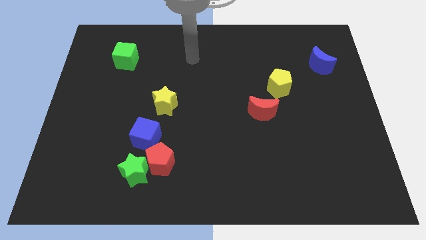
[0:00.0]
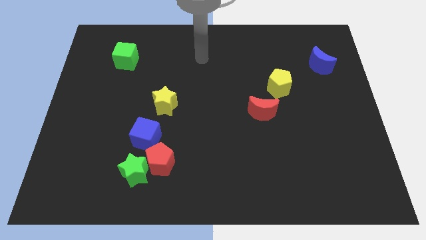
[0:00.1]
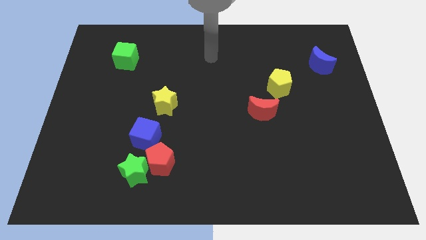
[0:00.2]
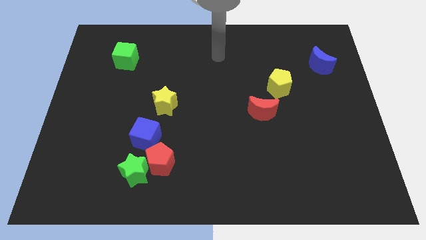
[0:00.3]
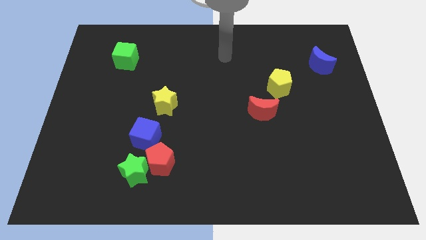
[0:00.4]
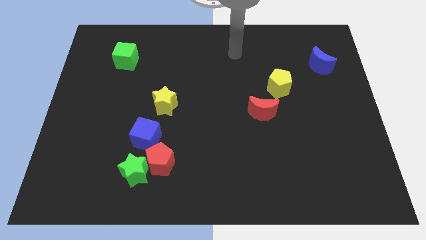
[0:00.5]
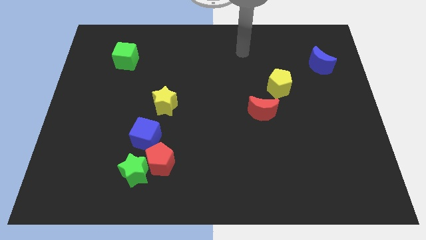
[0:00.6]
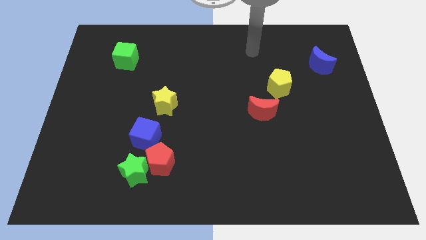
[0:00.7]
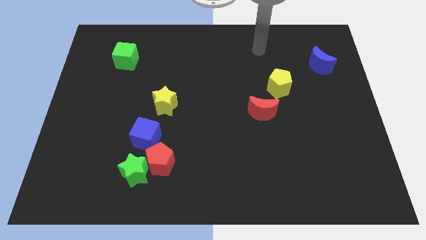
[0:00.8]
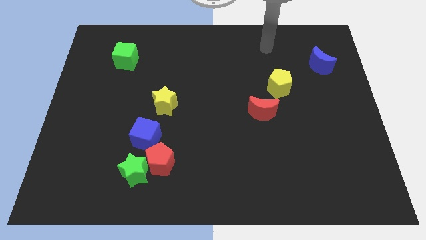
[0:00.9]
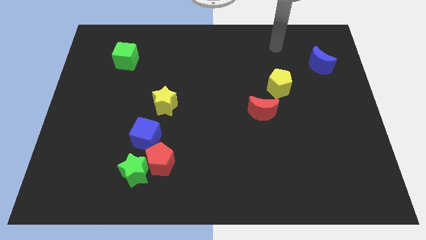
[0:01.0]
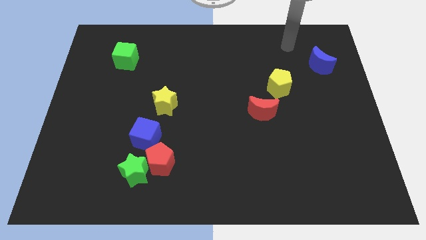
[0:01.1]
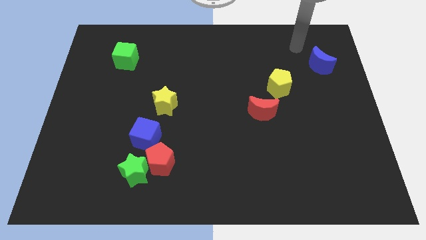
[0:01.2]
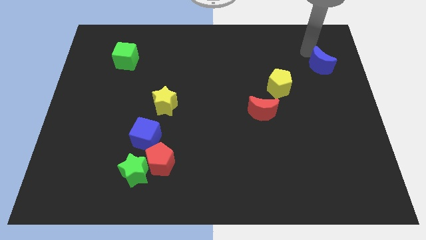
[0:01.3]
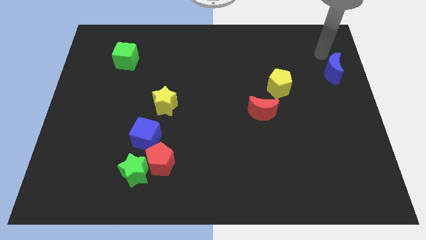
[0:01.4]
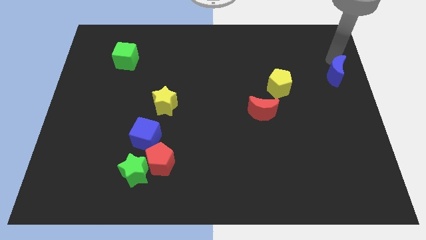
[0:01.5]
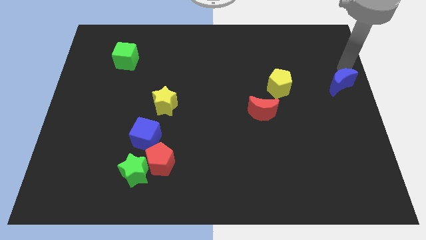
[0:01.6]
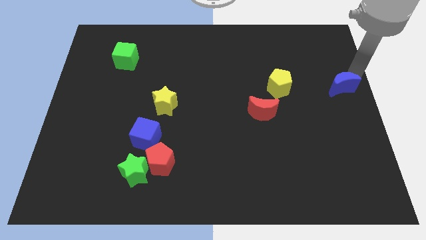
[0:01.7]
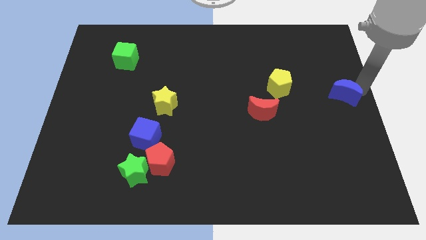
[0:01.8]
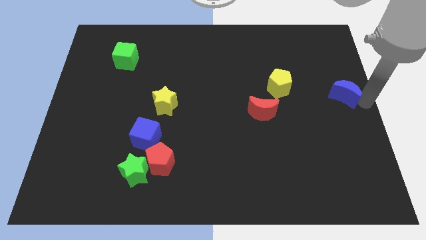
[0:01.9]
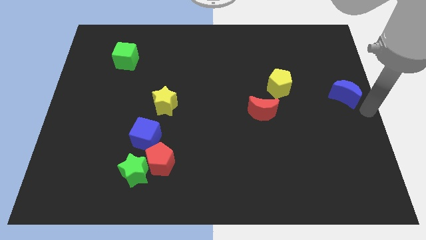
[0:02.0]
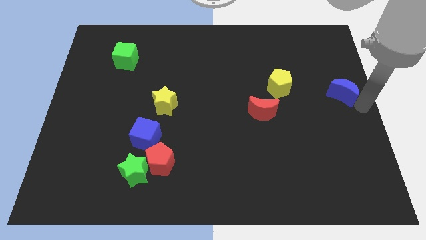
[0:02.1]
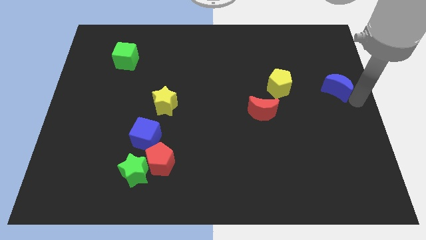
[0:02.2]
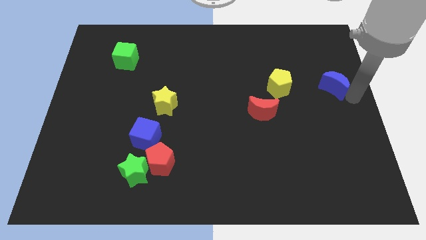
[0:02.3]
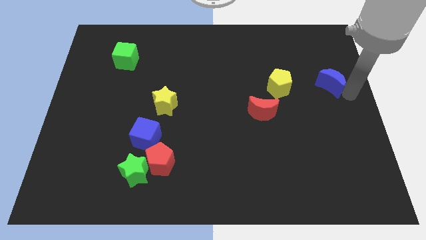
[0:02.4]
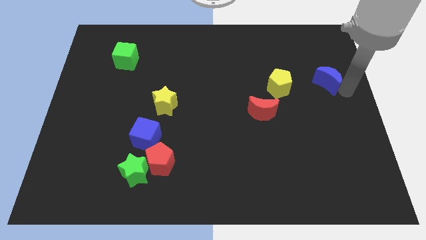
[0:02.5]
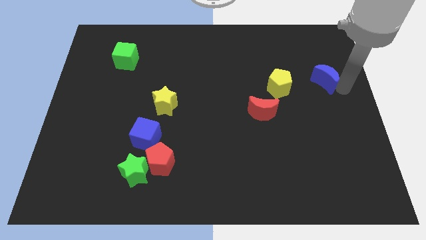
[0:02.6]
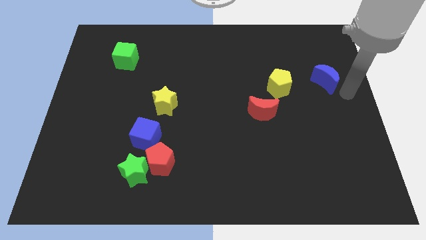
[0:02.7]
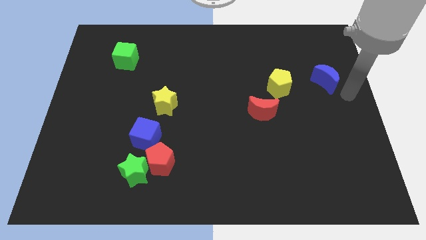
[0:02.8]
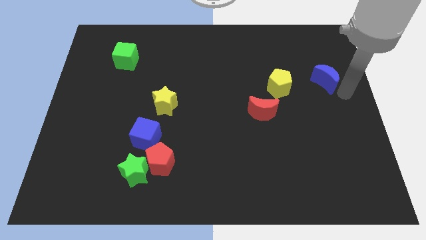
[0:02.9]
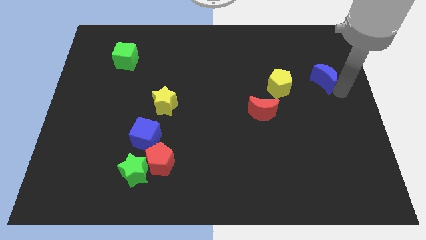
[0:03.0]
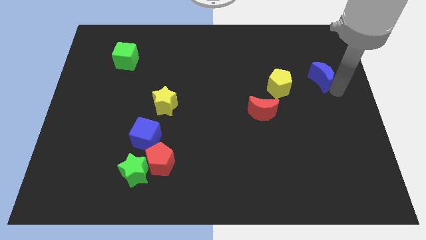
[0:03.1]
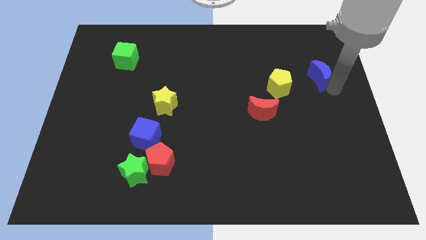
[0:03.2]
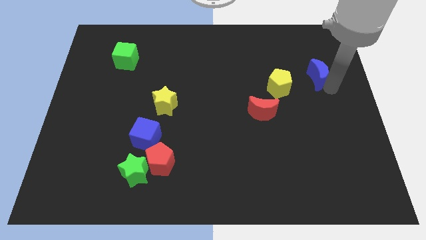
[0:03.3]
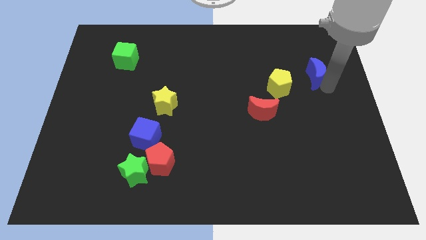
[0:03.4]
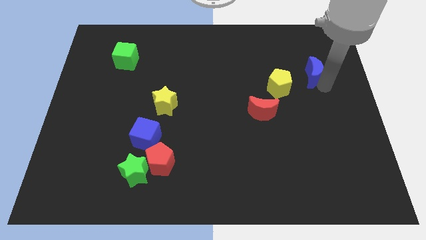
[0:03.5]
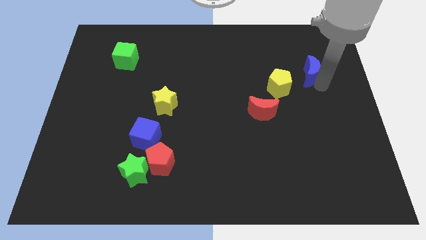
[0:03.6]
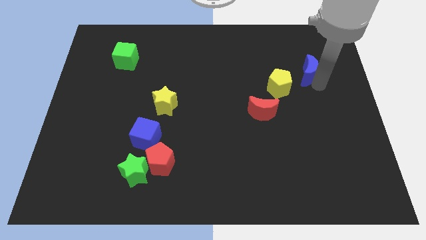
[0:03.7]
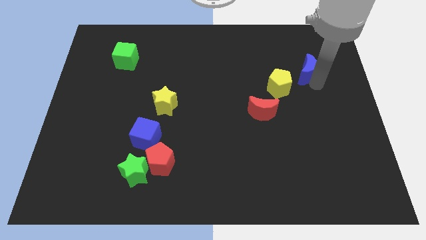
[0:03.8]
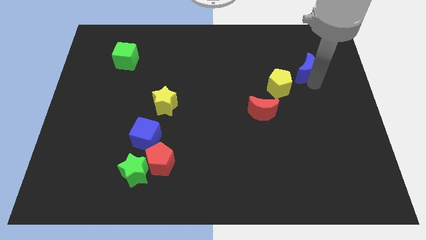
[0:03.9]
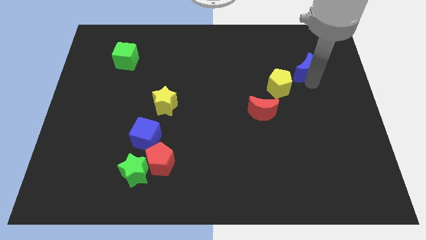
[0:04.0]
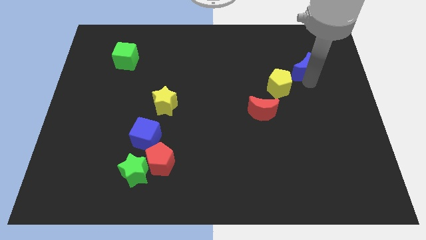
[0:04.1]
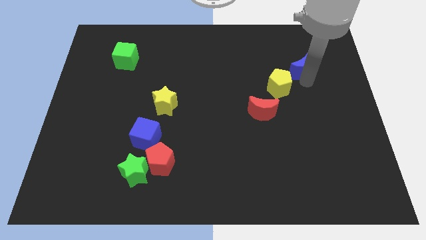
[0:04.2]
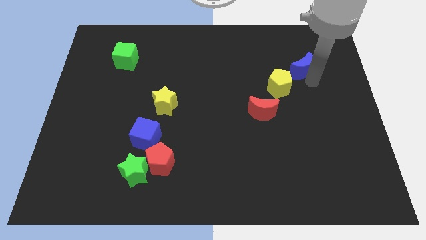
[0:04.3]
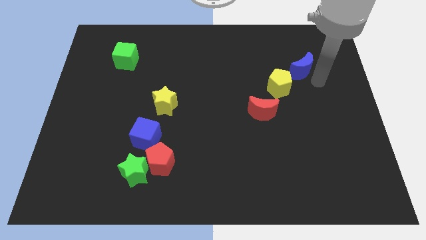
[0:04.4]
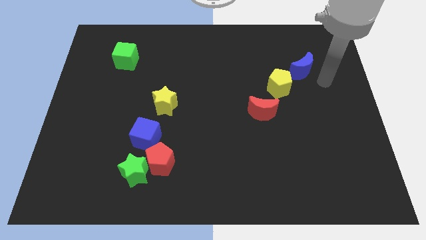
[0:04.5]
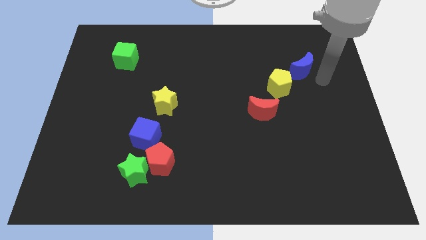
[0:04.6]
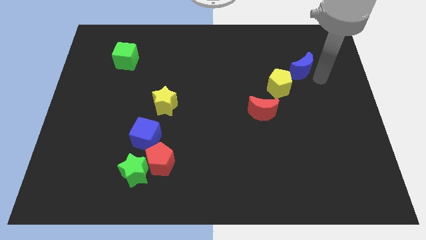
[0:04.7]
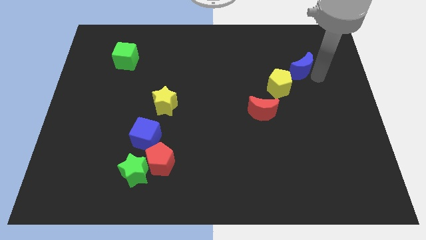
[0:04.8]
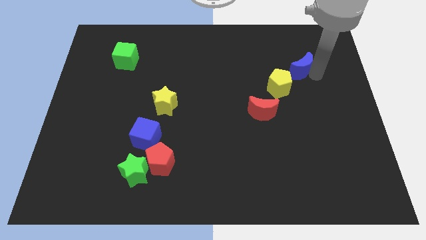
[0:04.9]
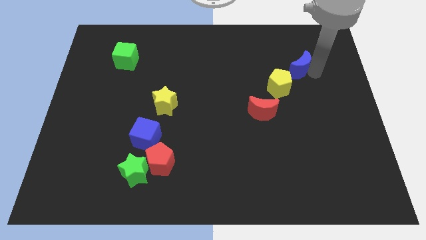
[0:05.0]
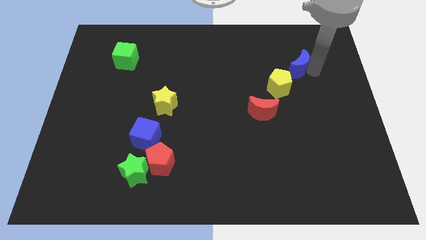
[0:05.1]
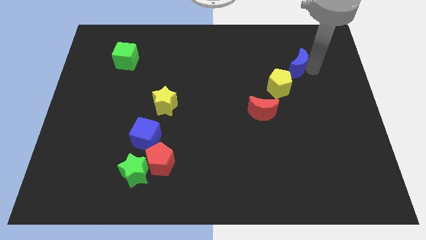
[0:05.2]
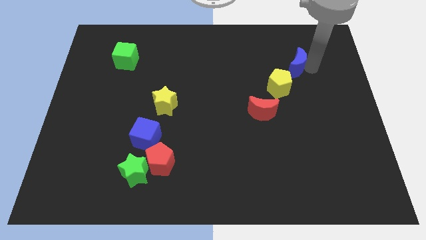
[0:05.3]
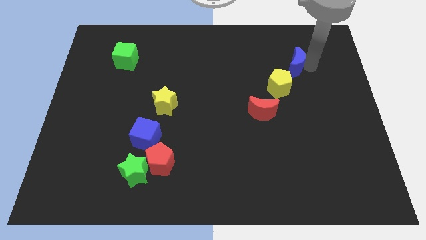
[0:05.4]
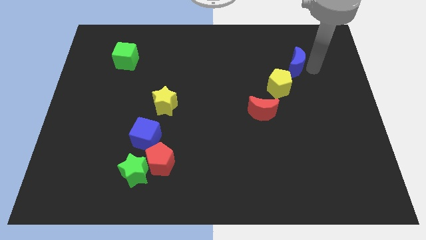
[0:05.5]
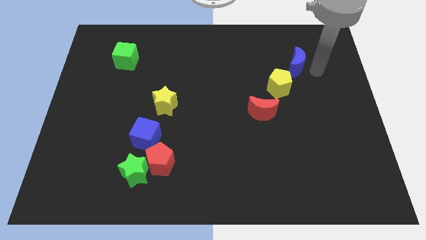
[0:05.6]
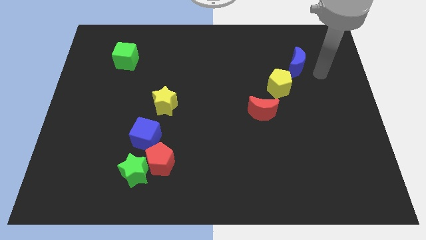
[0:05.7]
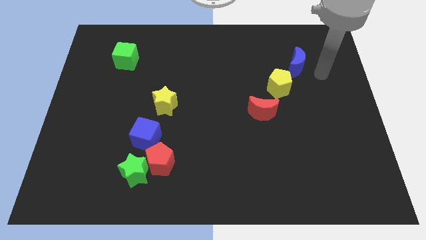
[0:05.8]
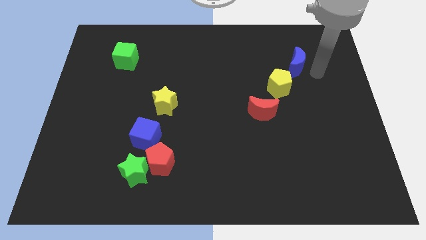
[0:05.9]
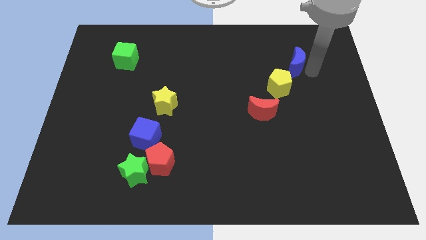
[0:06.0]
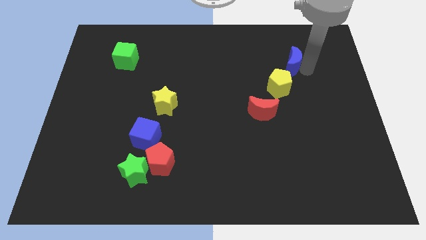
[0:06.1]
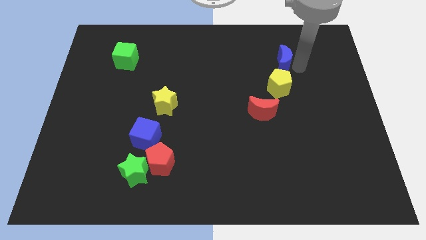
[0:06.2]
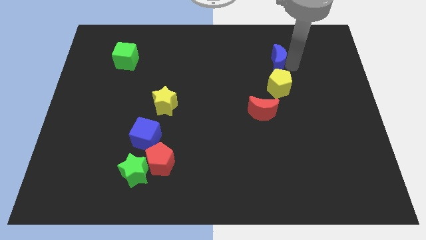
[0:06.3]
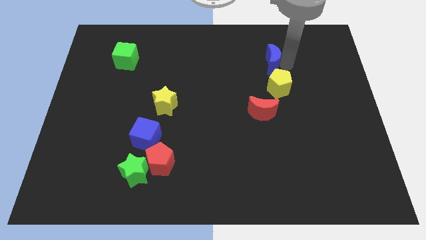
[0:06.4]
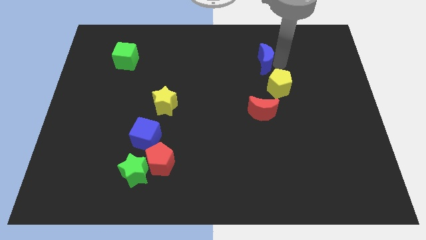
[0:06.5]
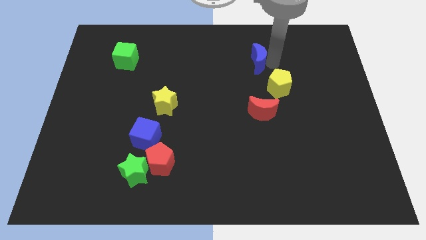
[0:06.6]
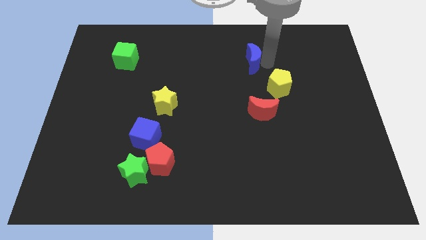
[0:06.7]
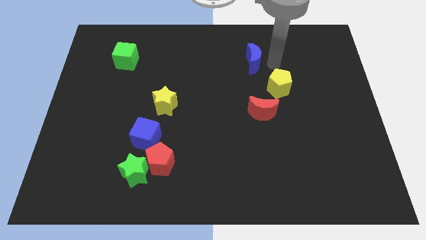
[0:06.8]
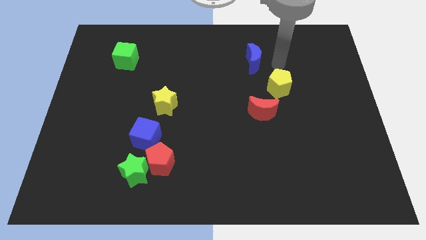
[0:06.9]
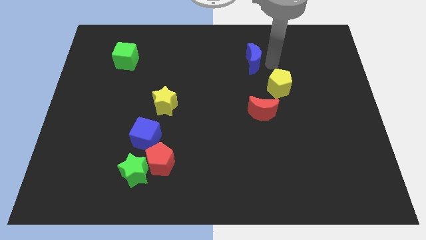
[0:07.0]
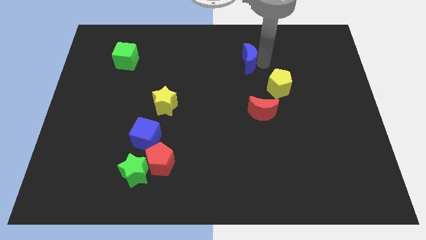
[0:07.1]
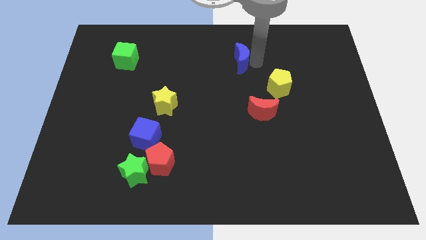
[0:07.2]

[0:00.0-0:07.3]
push the blue moon to the left

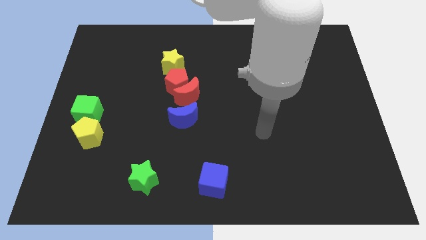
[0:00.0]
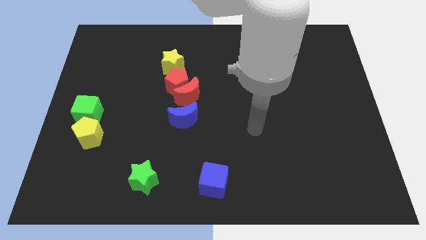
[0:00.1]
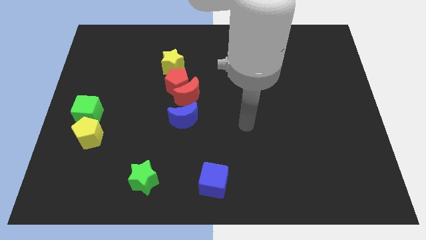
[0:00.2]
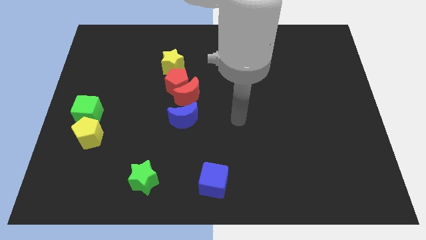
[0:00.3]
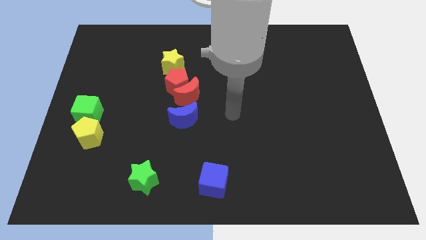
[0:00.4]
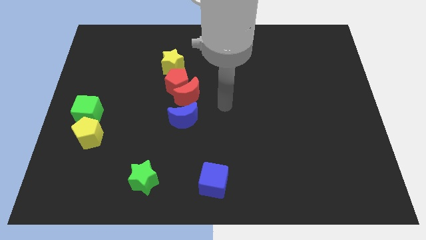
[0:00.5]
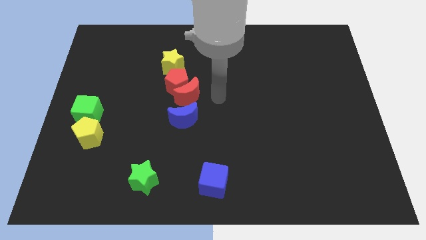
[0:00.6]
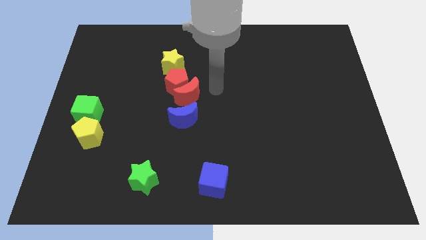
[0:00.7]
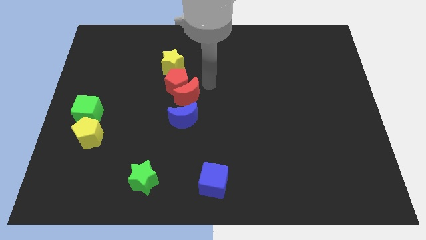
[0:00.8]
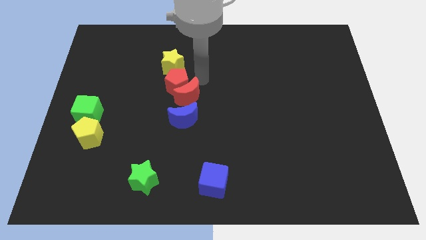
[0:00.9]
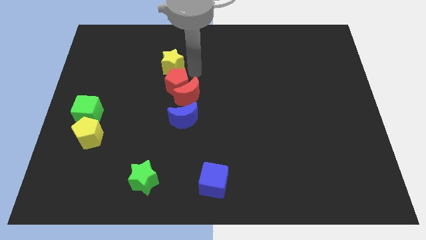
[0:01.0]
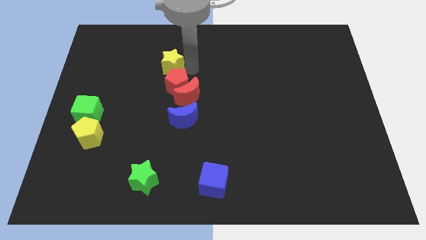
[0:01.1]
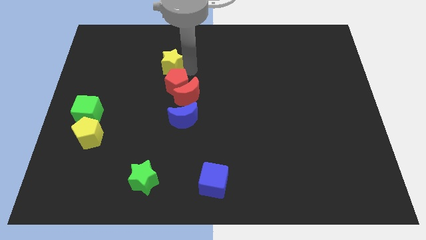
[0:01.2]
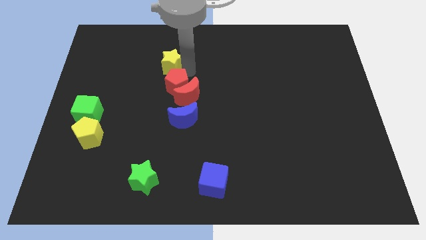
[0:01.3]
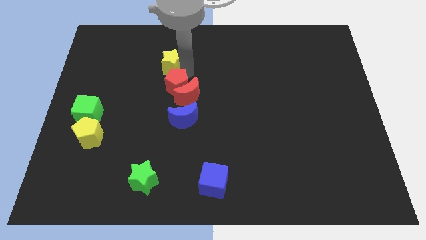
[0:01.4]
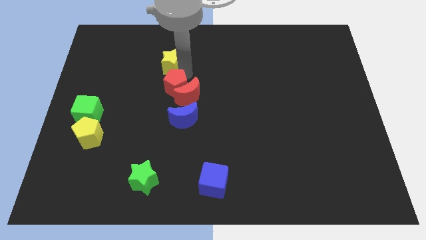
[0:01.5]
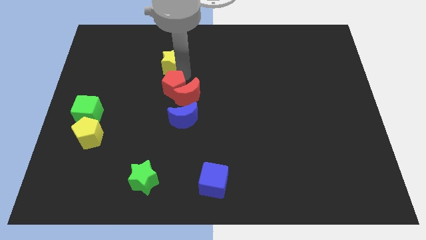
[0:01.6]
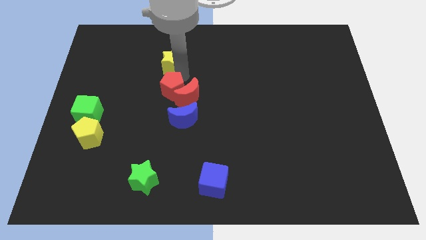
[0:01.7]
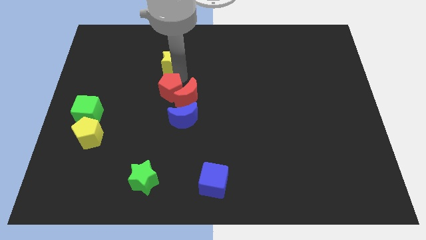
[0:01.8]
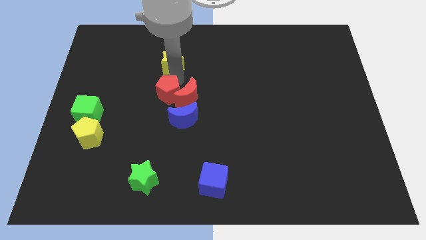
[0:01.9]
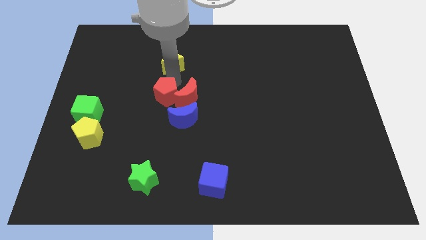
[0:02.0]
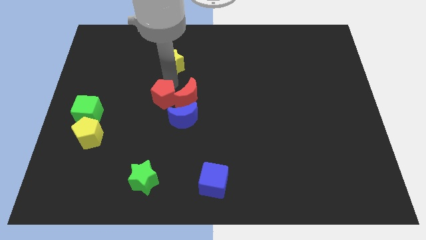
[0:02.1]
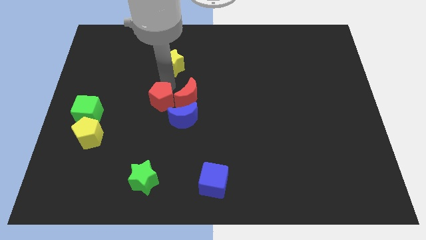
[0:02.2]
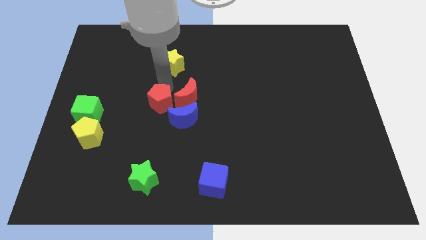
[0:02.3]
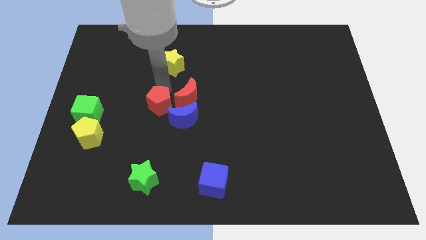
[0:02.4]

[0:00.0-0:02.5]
slide the red pentagon down and to the left diagonally a bit
